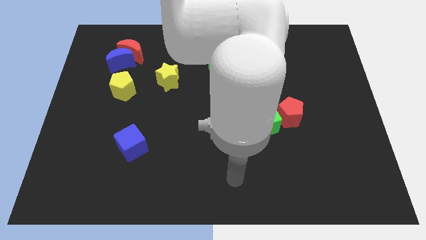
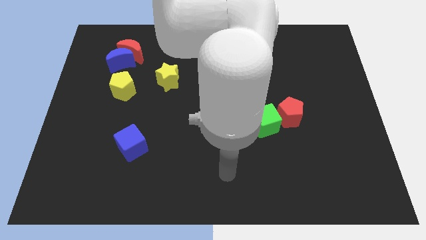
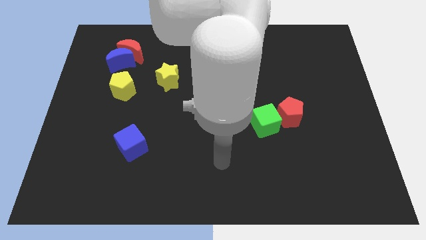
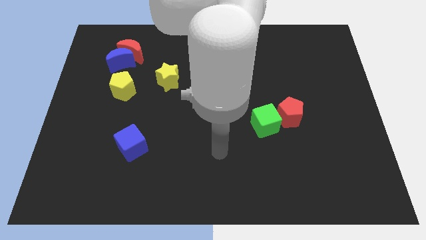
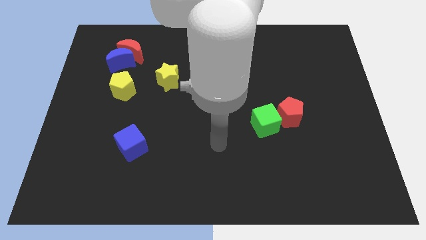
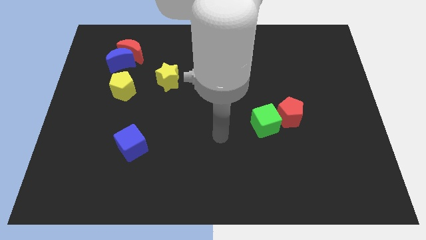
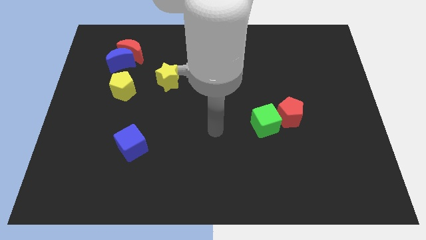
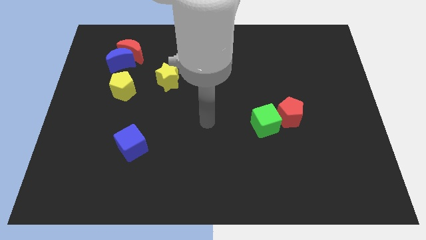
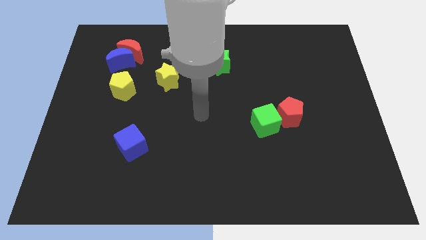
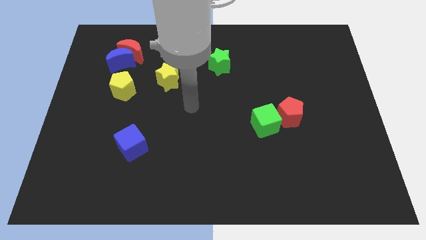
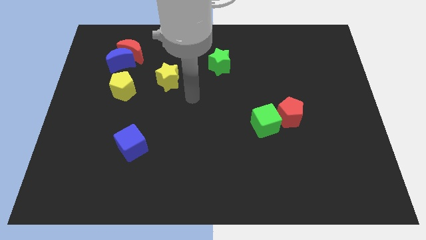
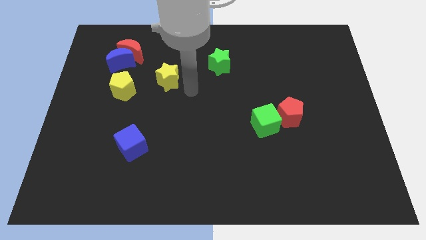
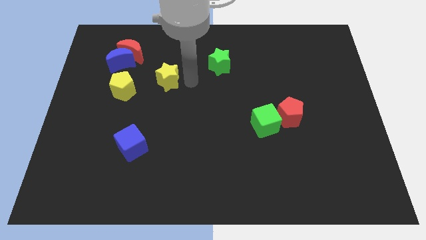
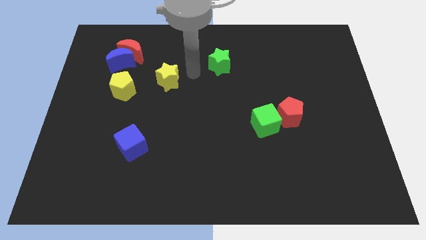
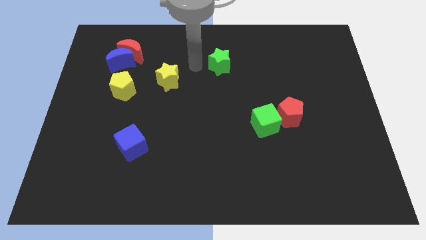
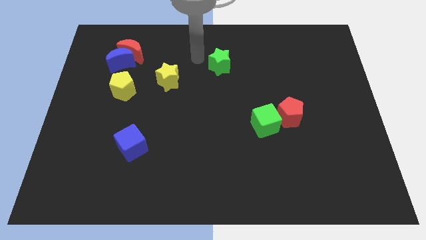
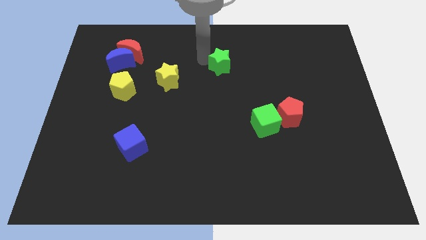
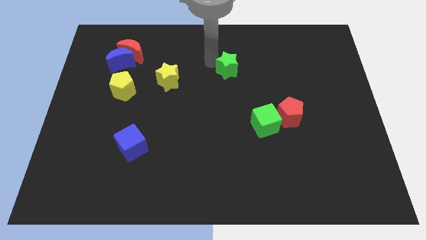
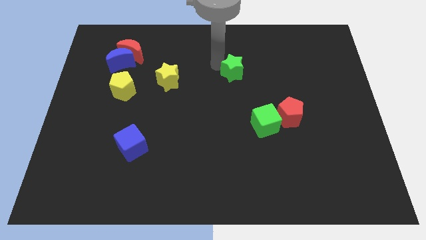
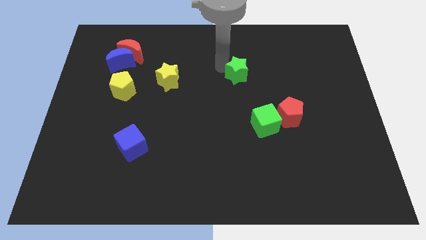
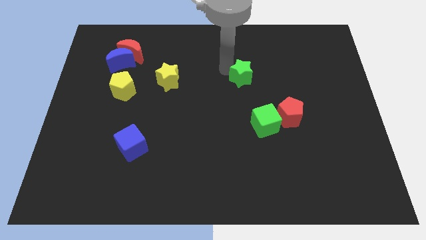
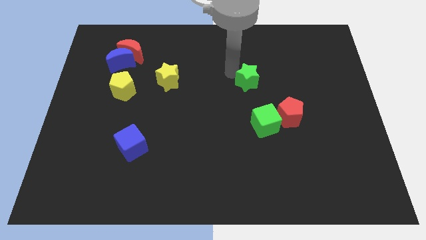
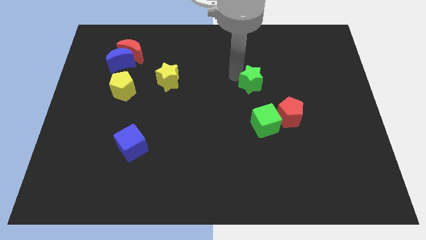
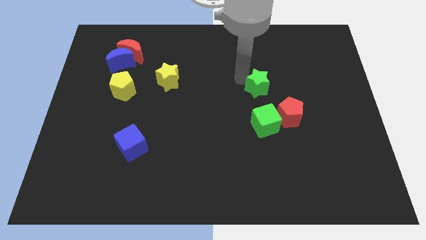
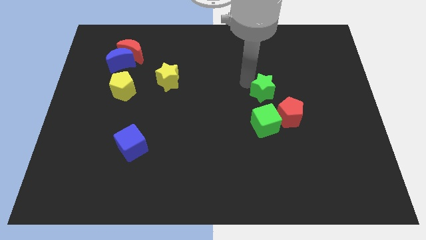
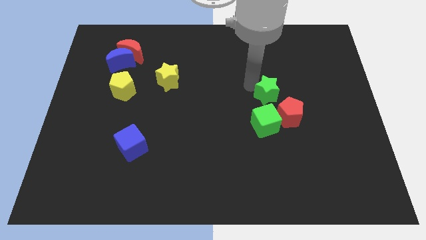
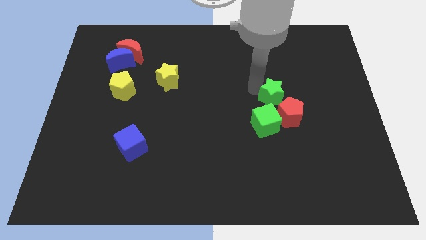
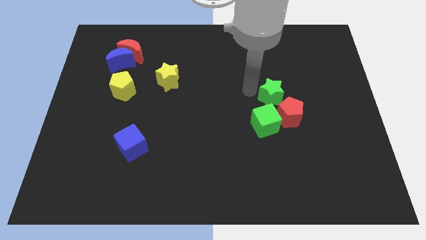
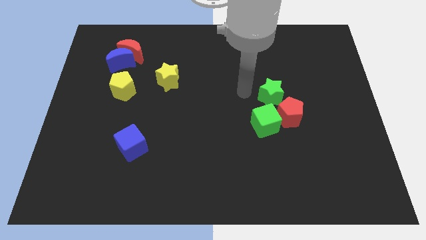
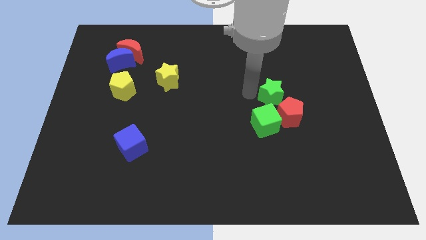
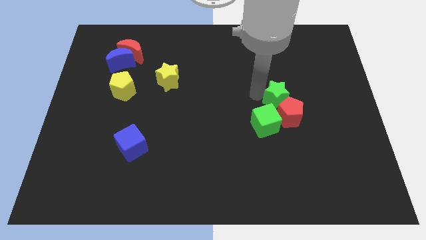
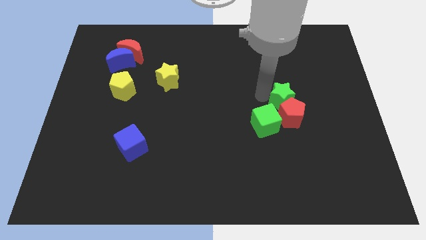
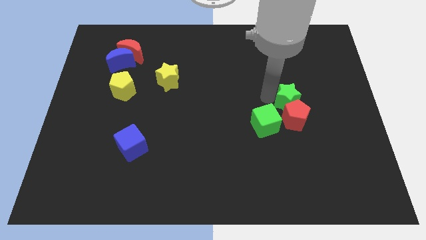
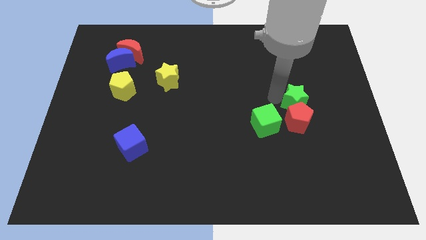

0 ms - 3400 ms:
push the green star downwards and to the right diagonally

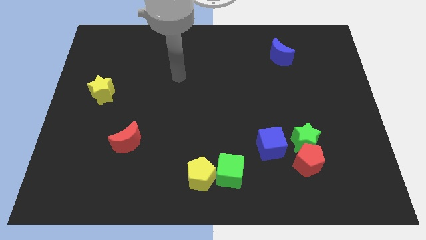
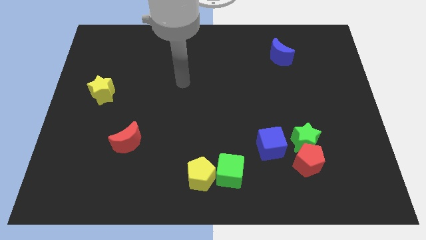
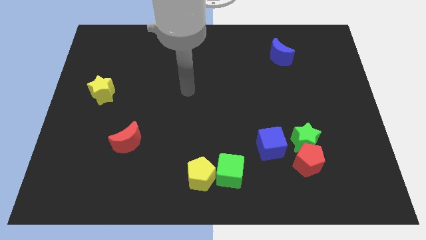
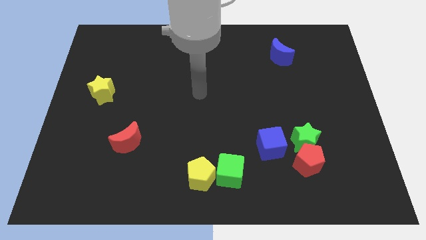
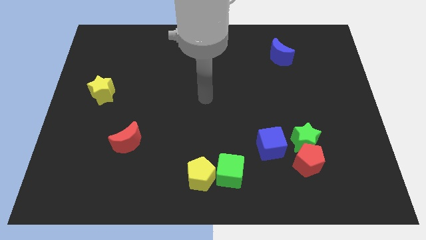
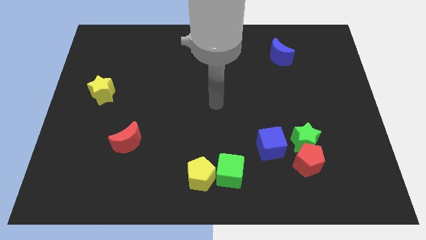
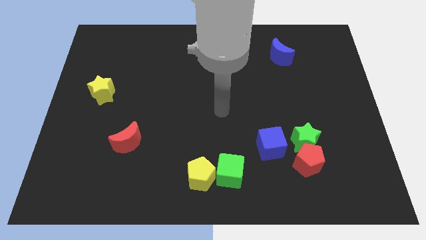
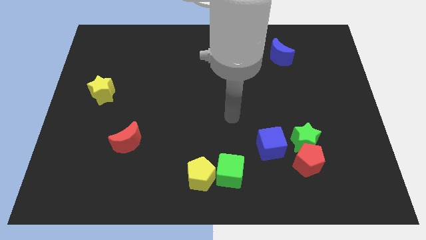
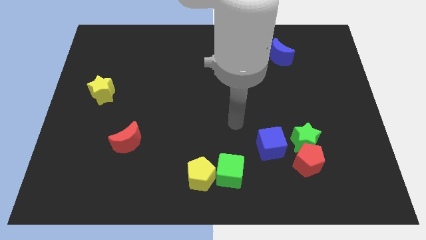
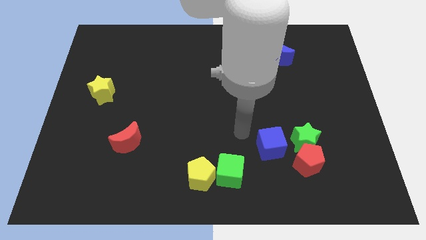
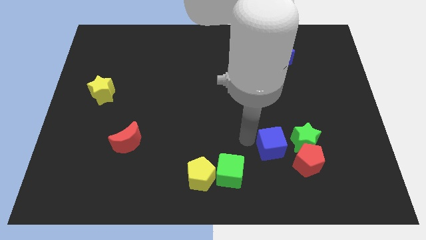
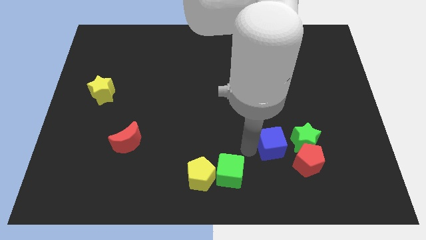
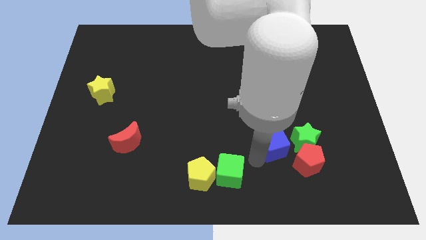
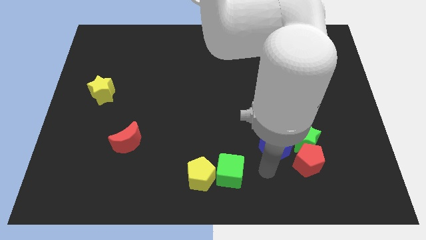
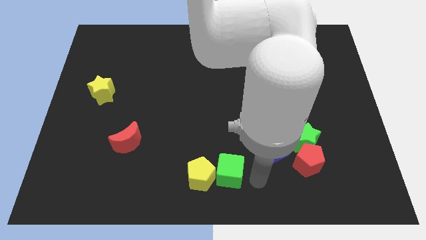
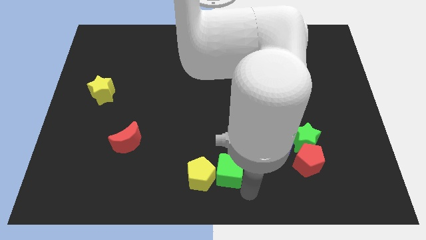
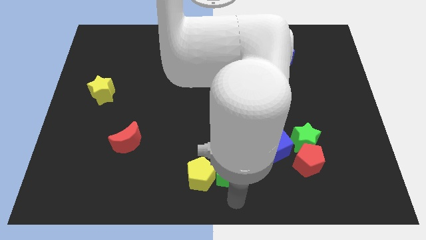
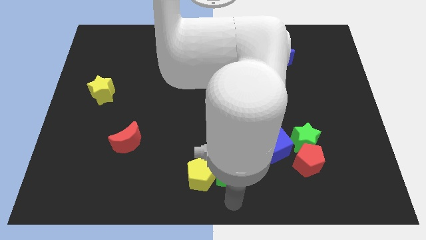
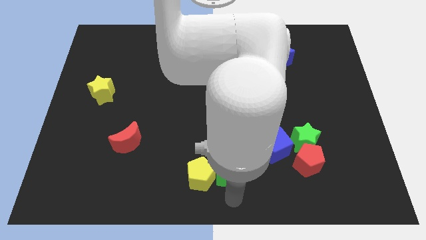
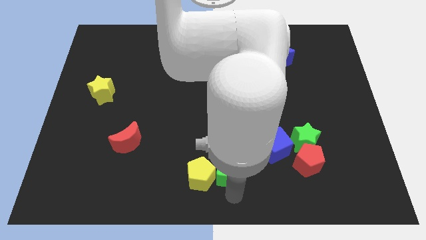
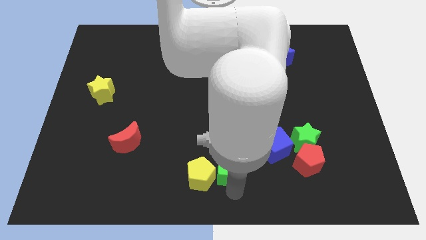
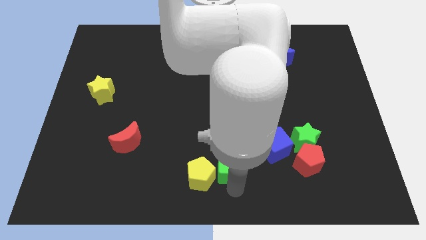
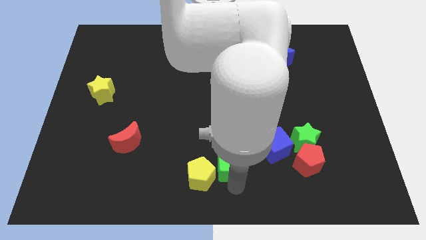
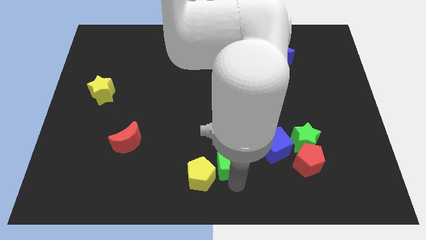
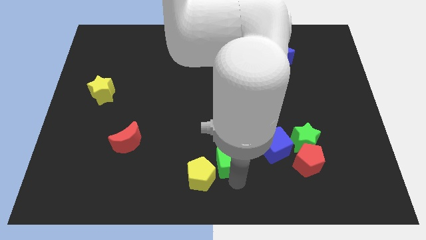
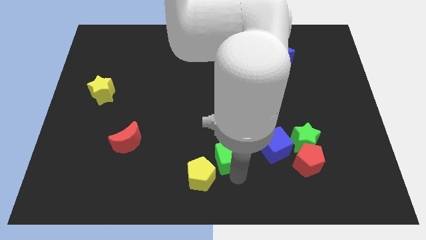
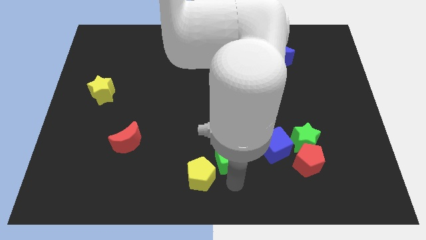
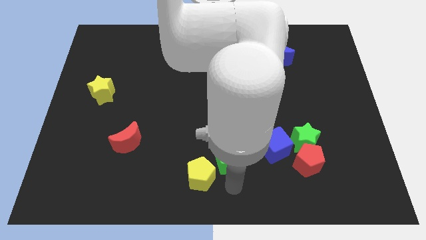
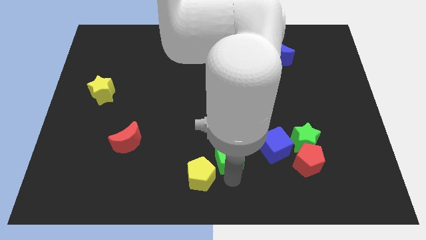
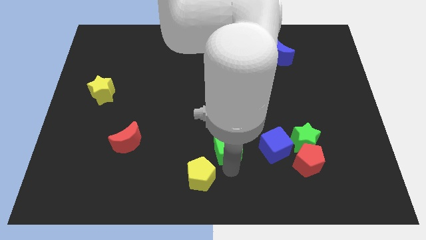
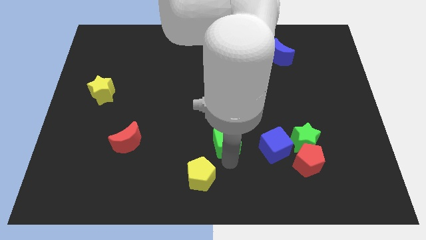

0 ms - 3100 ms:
slightly slide the green cube upwards

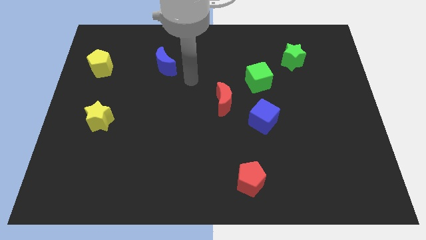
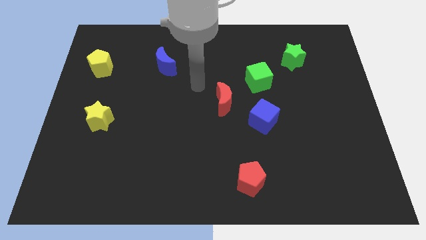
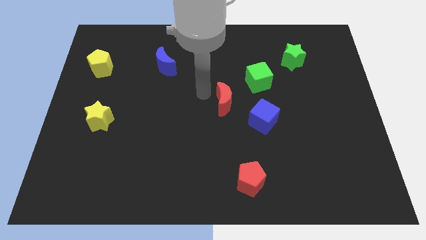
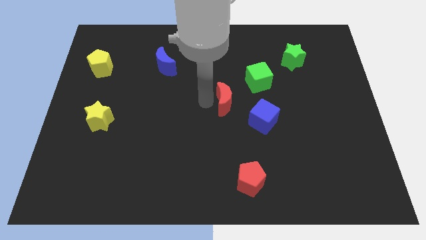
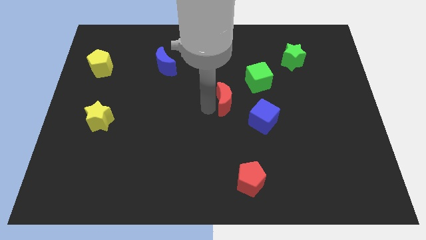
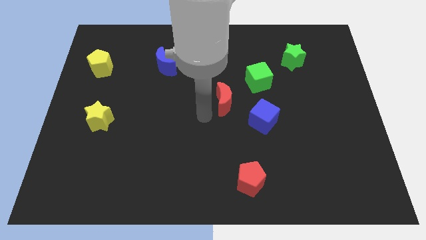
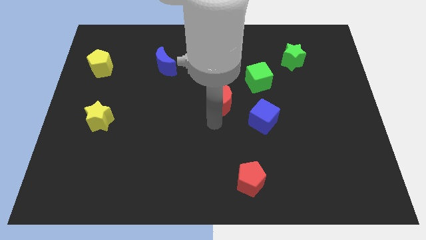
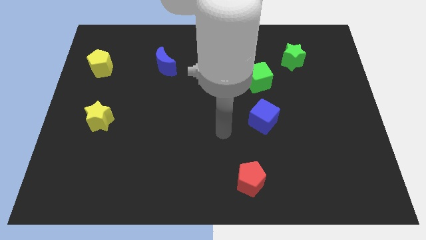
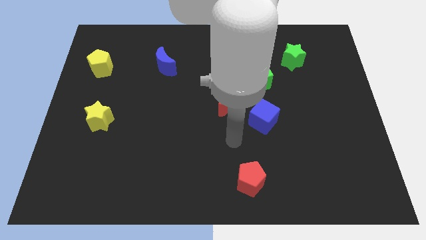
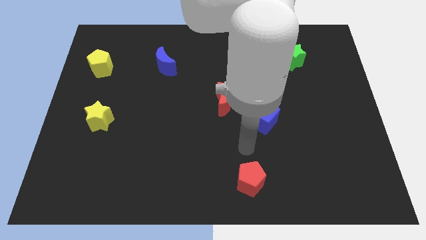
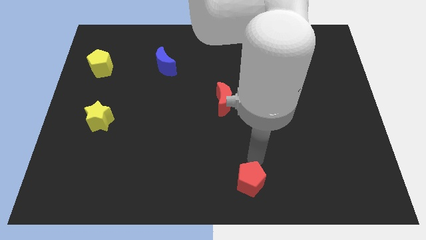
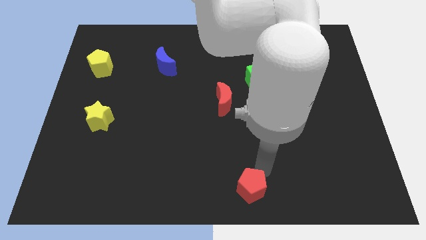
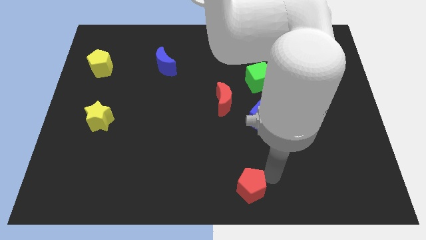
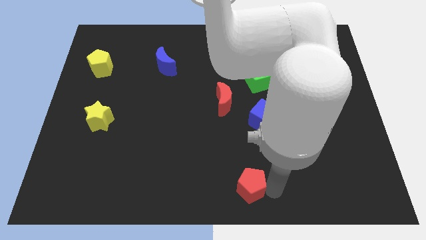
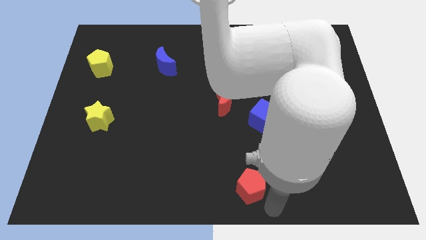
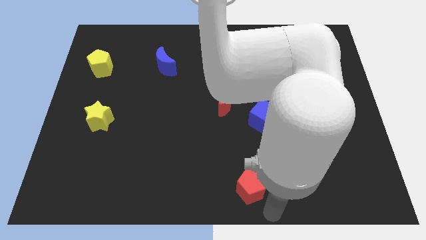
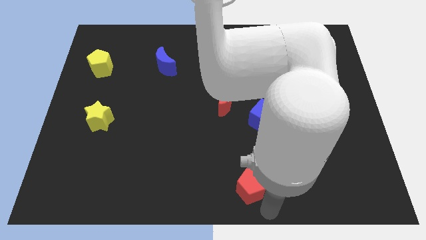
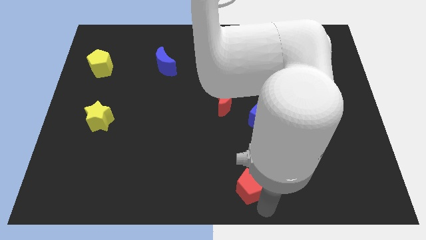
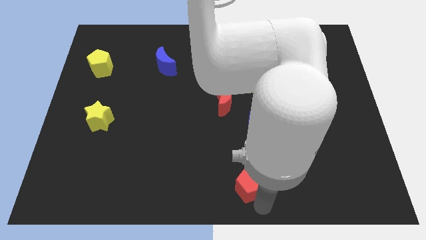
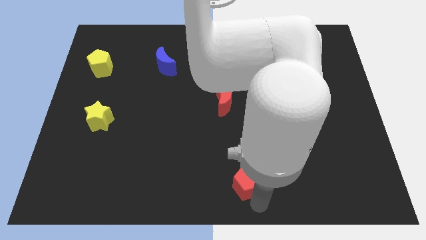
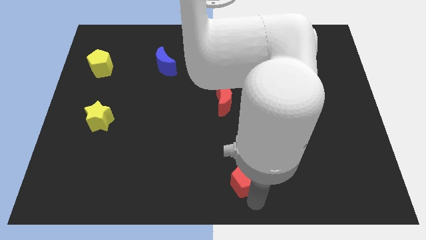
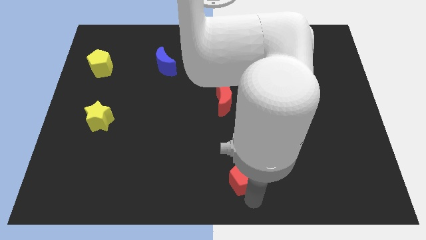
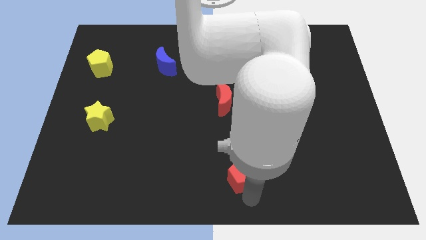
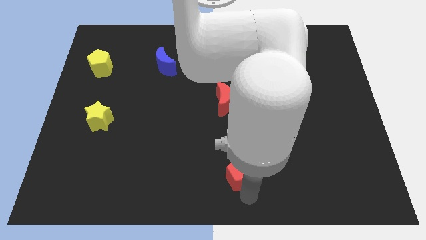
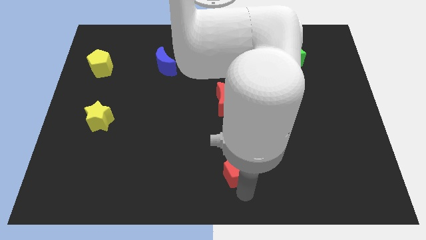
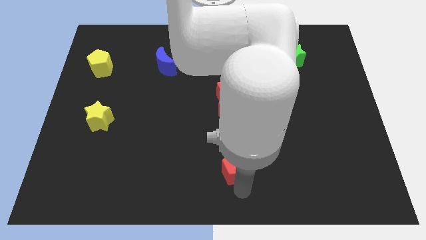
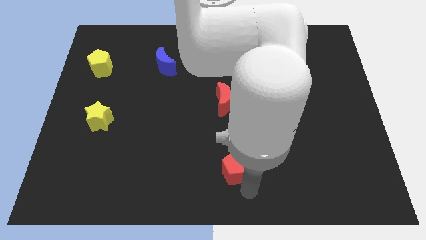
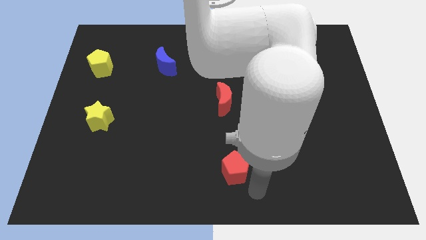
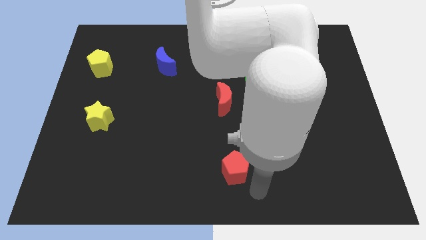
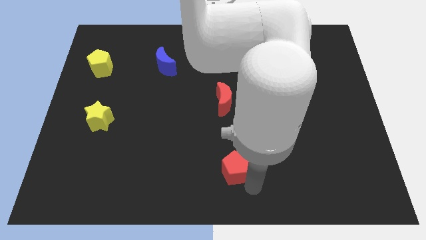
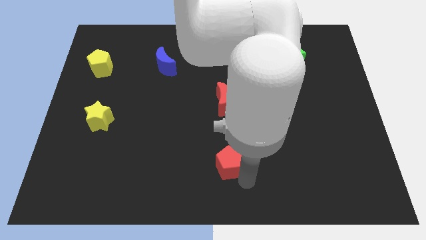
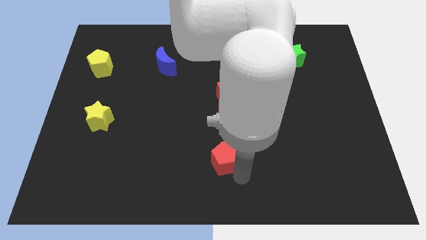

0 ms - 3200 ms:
push the red pentagon diagonally upwards and left a little
